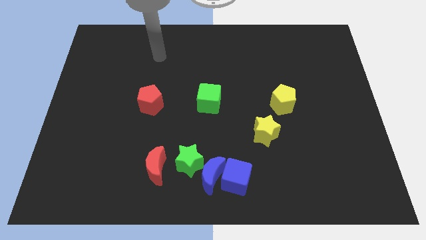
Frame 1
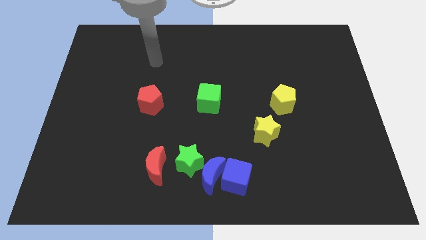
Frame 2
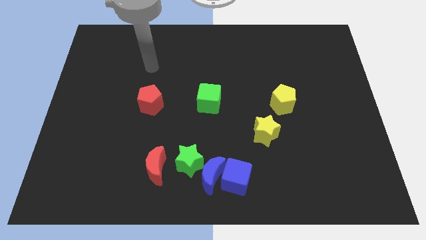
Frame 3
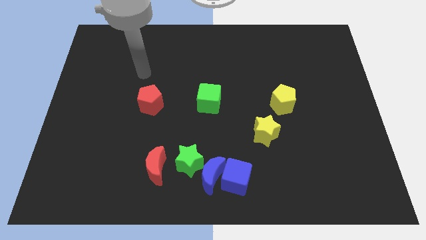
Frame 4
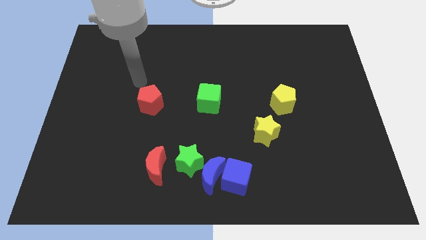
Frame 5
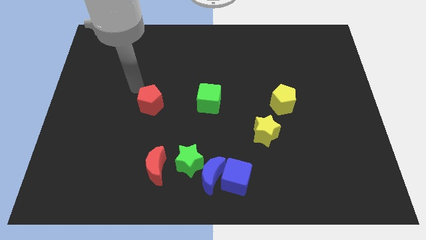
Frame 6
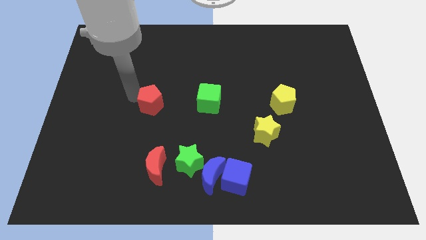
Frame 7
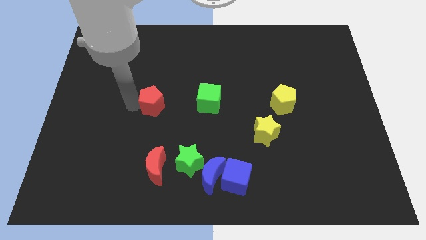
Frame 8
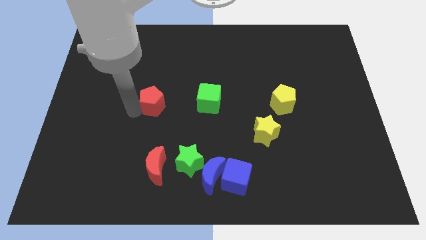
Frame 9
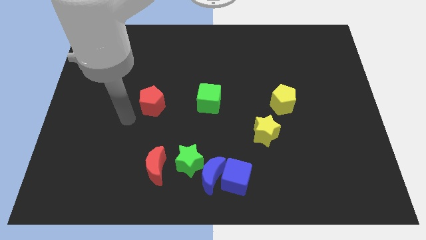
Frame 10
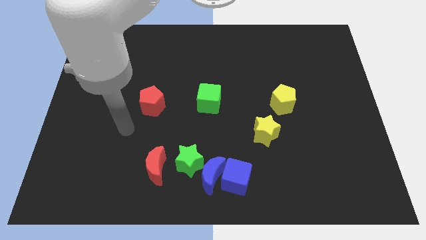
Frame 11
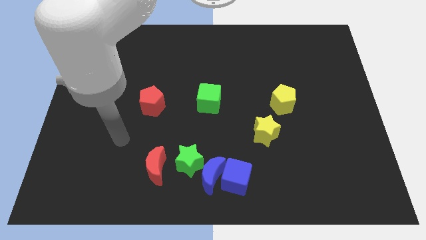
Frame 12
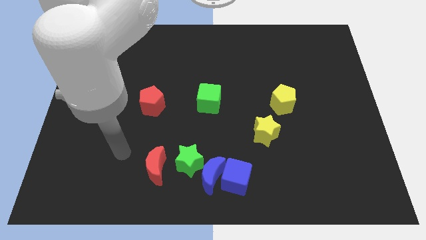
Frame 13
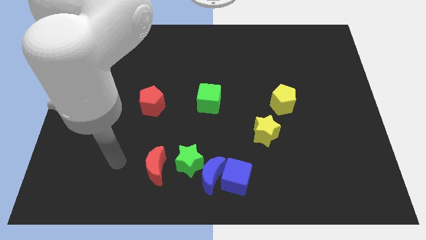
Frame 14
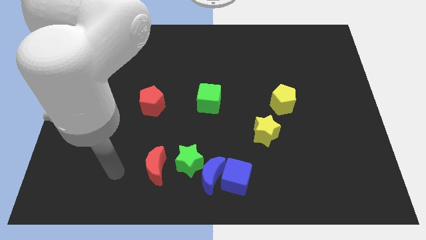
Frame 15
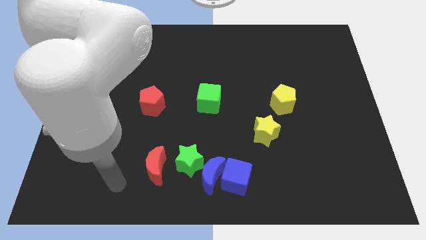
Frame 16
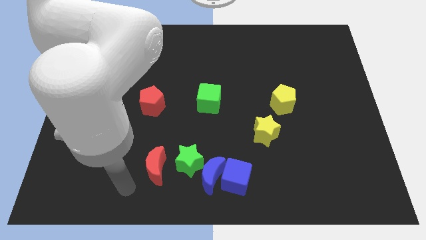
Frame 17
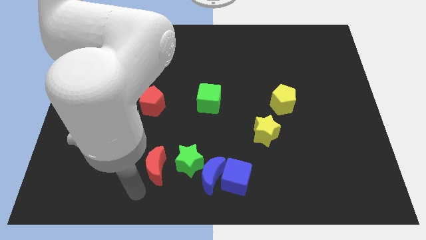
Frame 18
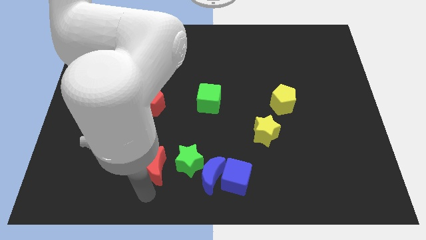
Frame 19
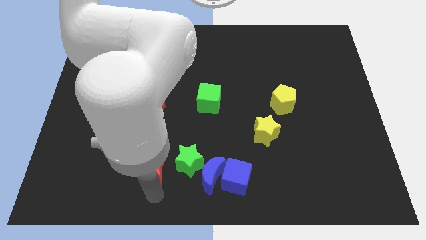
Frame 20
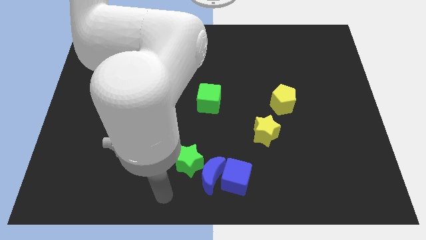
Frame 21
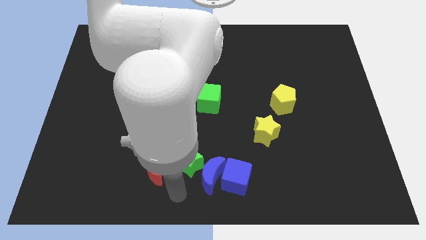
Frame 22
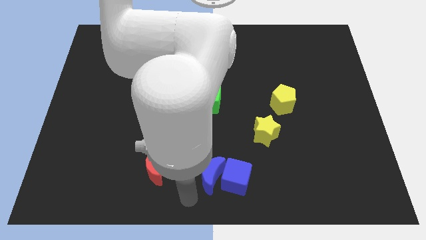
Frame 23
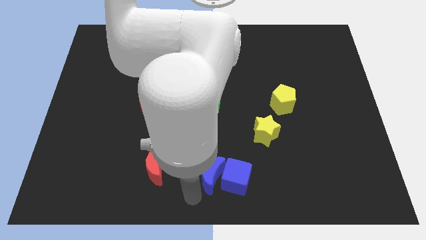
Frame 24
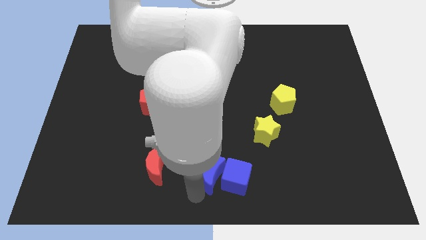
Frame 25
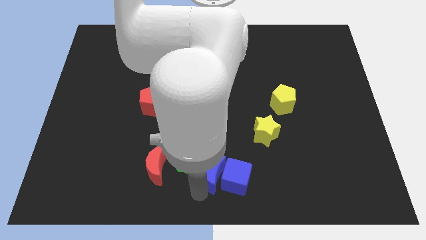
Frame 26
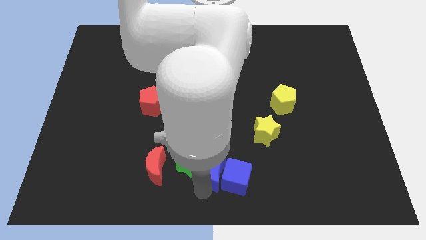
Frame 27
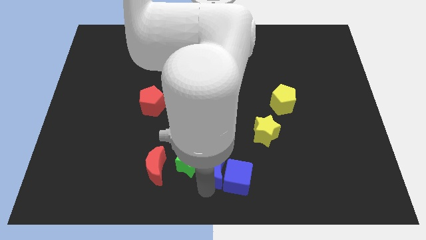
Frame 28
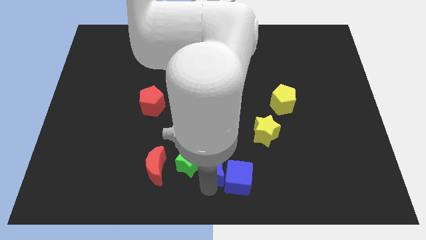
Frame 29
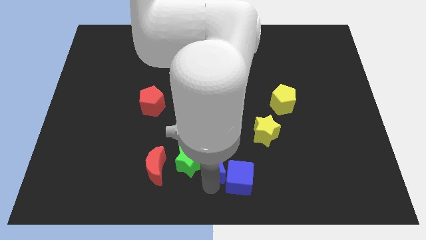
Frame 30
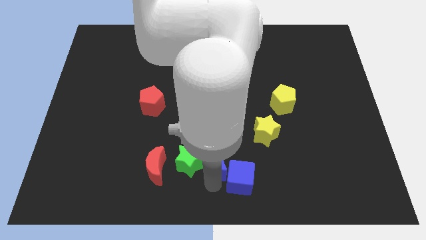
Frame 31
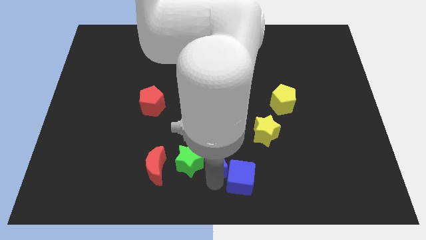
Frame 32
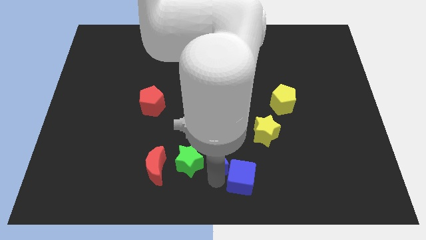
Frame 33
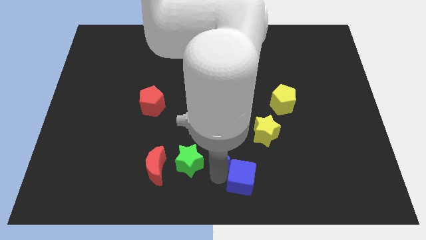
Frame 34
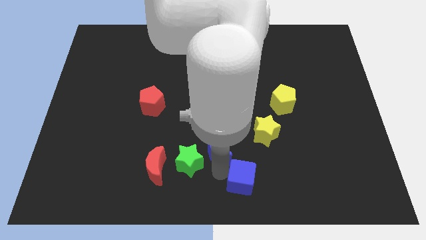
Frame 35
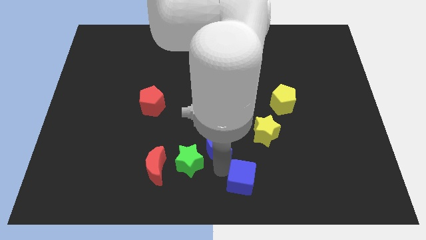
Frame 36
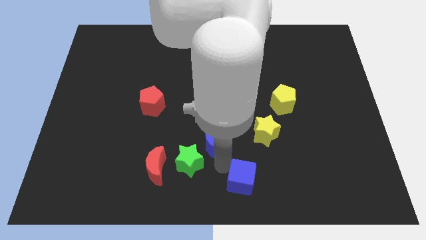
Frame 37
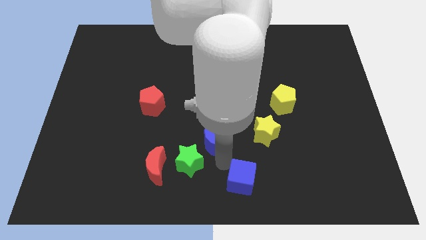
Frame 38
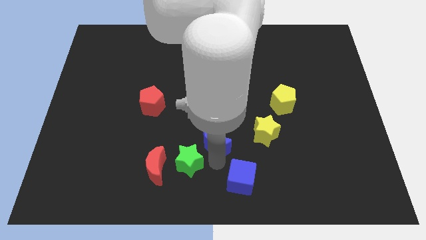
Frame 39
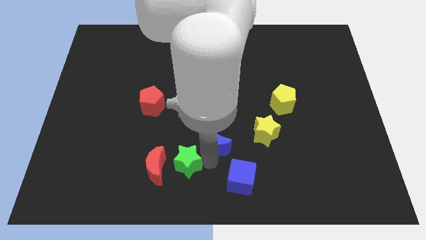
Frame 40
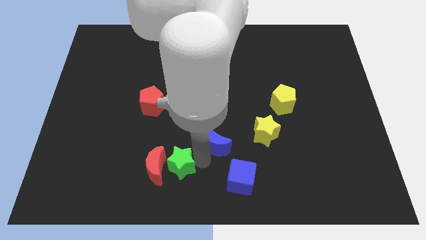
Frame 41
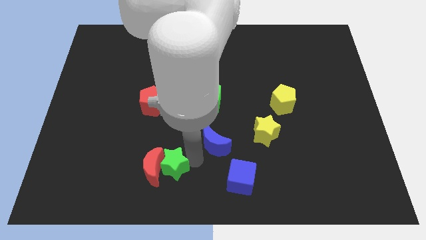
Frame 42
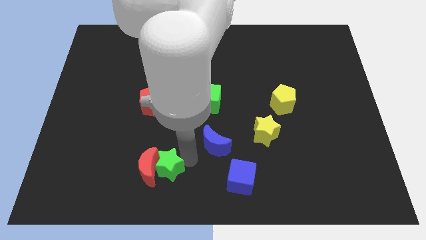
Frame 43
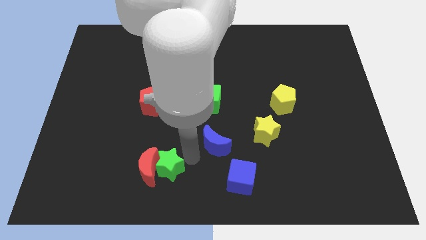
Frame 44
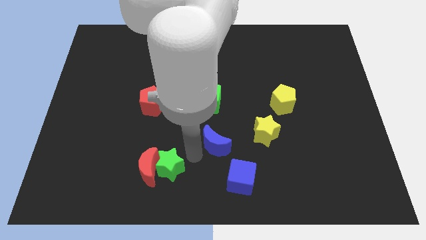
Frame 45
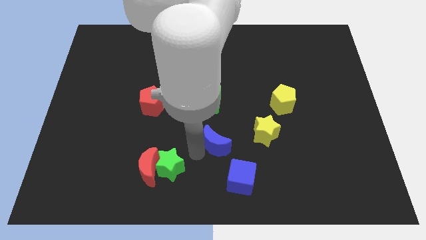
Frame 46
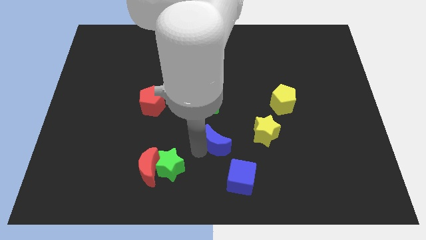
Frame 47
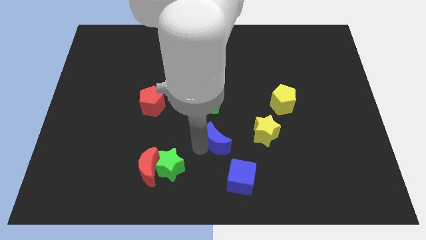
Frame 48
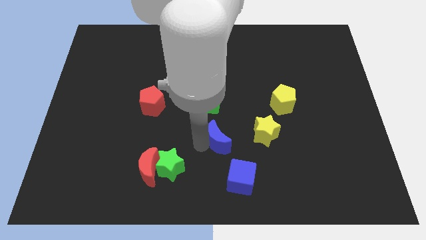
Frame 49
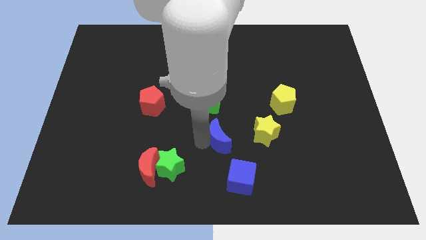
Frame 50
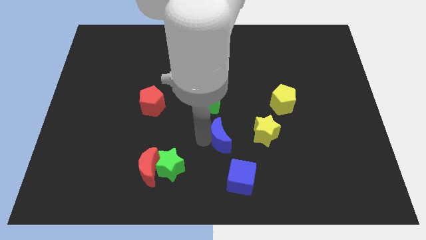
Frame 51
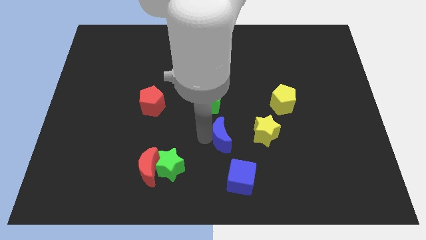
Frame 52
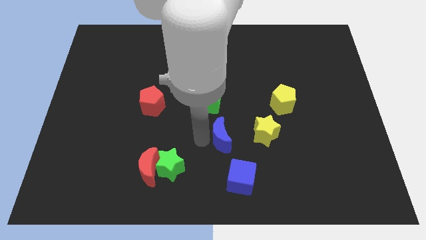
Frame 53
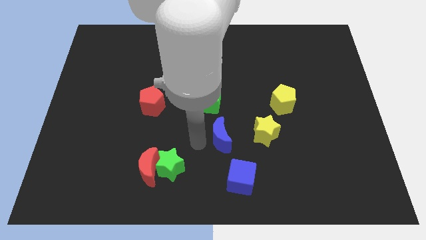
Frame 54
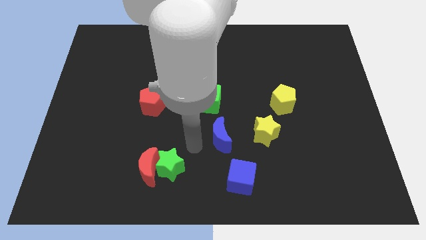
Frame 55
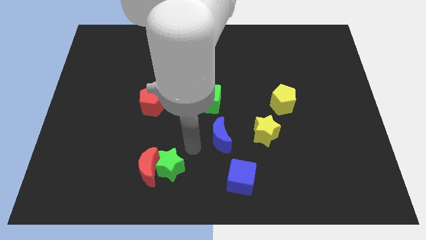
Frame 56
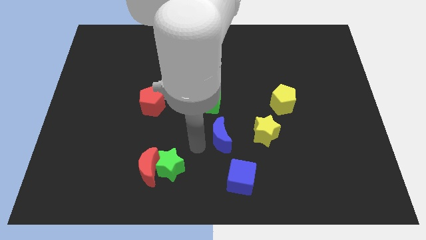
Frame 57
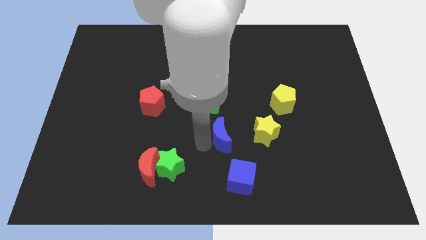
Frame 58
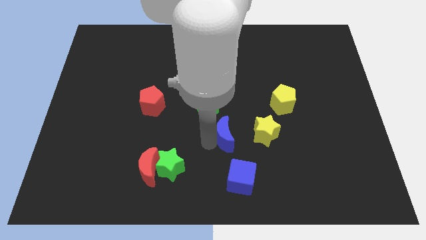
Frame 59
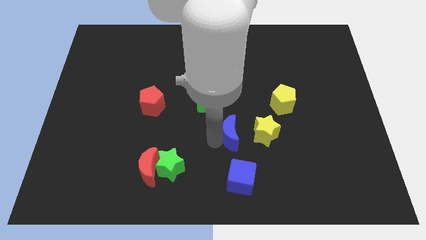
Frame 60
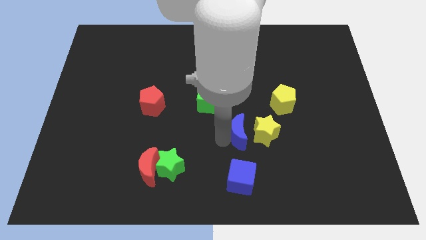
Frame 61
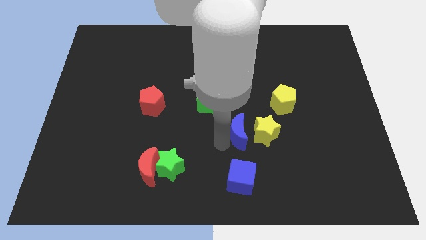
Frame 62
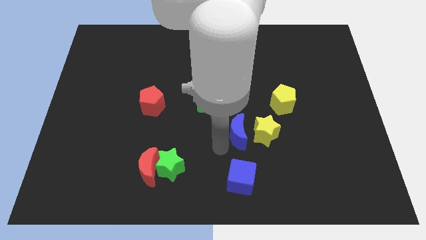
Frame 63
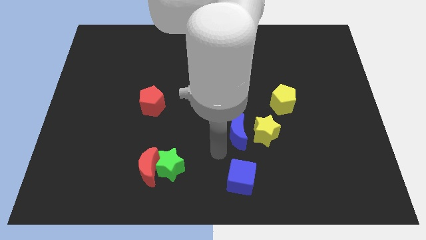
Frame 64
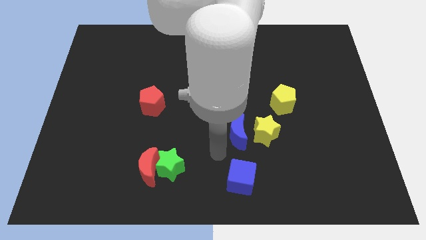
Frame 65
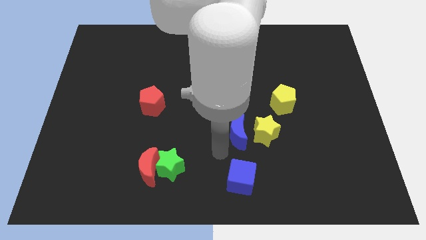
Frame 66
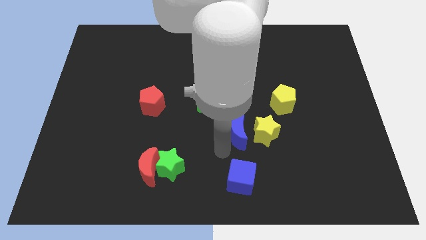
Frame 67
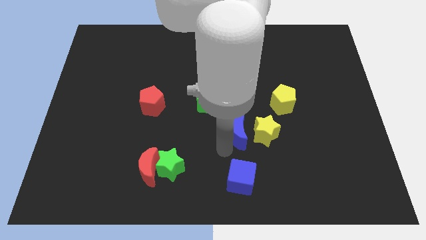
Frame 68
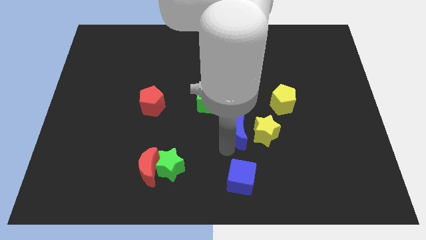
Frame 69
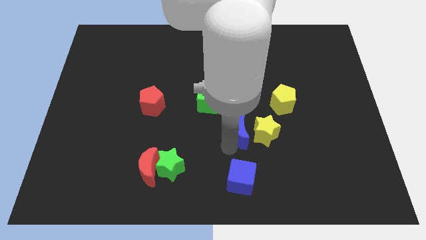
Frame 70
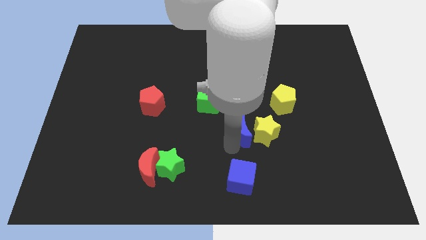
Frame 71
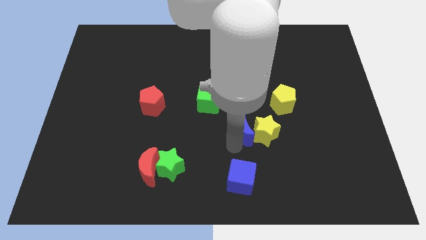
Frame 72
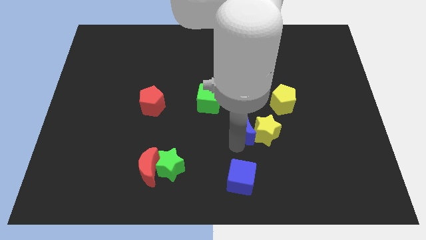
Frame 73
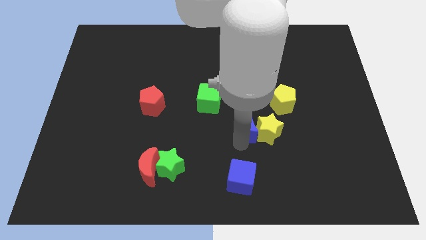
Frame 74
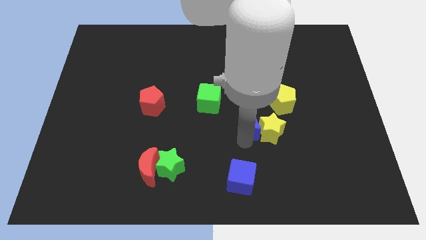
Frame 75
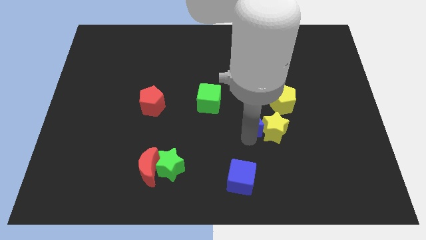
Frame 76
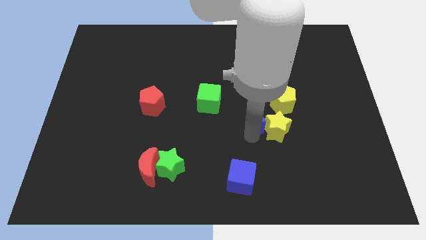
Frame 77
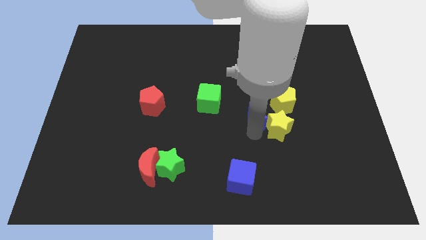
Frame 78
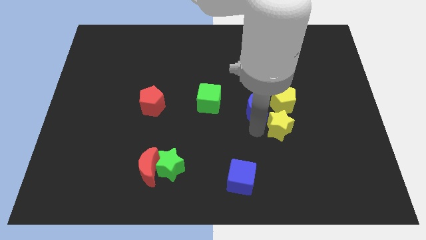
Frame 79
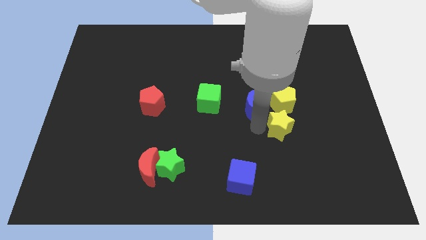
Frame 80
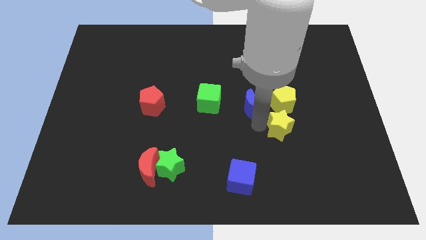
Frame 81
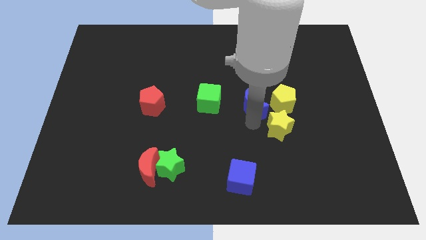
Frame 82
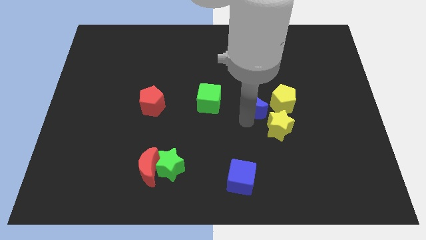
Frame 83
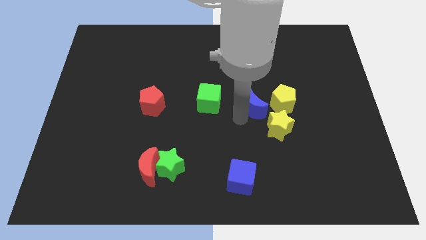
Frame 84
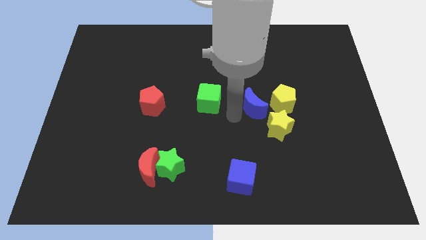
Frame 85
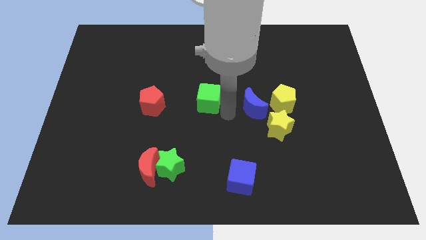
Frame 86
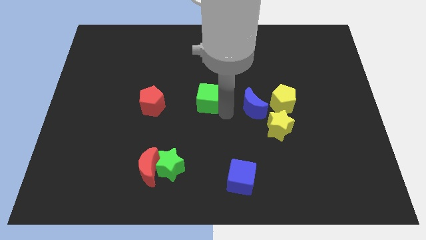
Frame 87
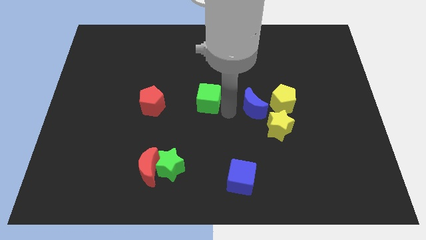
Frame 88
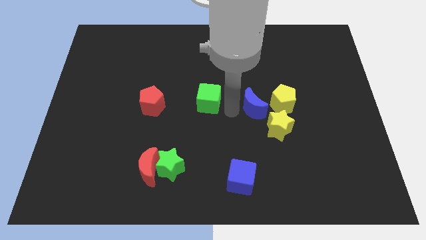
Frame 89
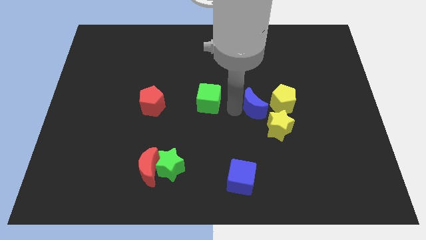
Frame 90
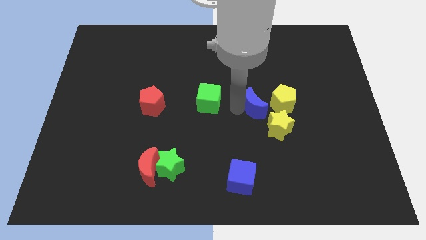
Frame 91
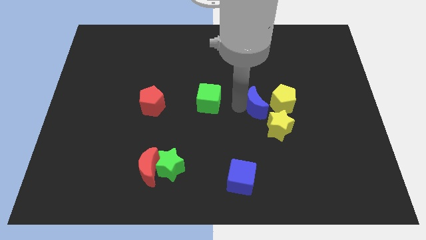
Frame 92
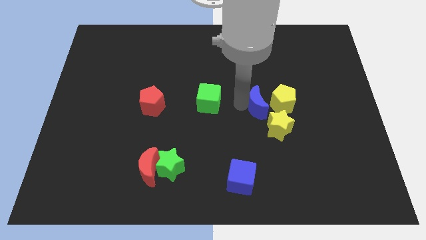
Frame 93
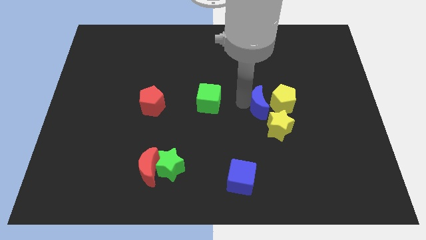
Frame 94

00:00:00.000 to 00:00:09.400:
put the blue moon close to the yellow pentagon
